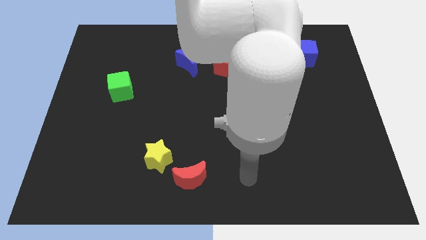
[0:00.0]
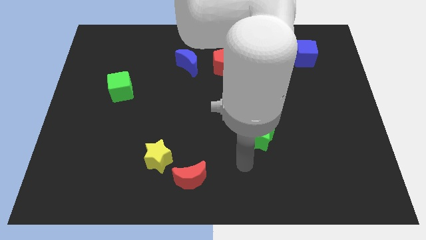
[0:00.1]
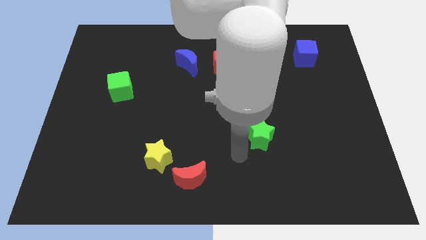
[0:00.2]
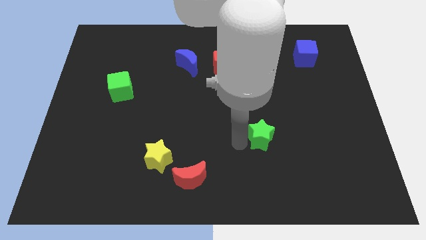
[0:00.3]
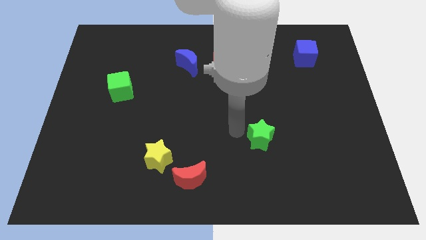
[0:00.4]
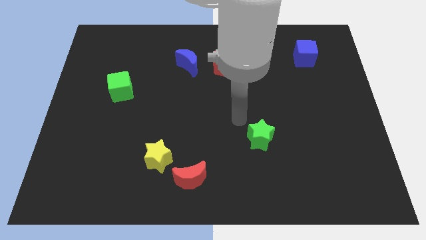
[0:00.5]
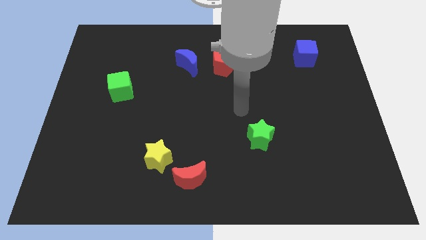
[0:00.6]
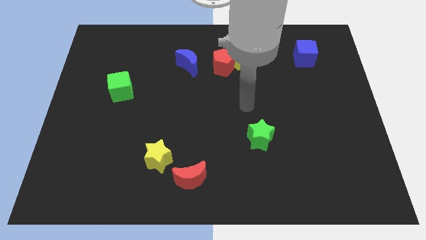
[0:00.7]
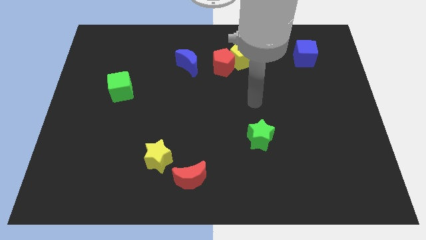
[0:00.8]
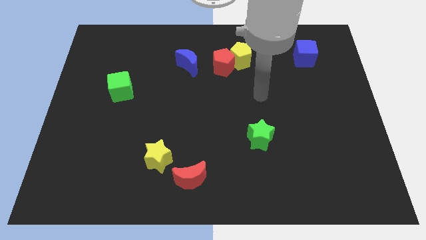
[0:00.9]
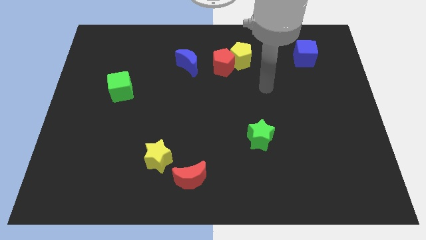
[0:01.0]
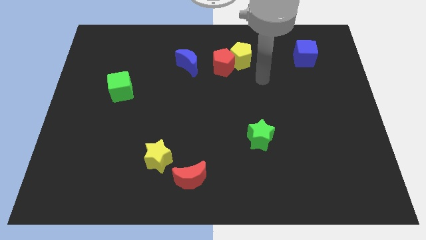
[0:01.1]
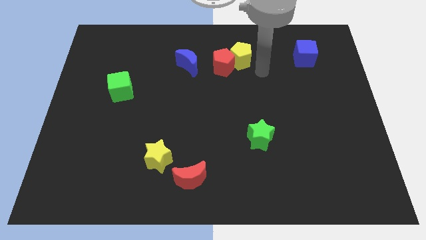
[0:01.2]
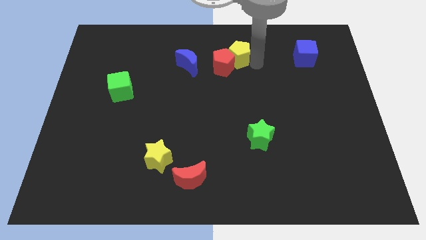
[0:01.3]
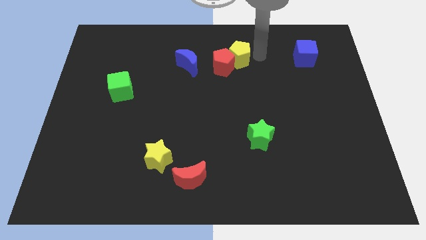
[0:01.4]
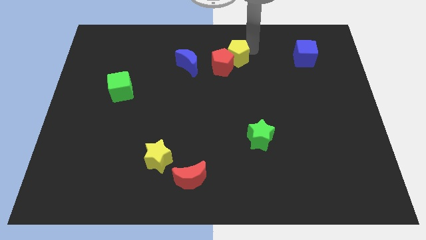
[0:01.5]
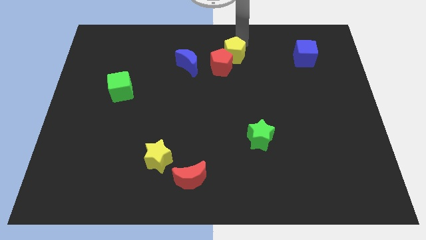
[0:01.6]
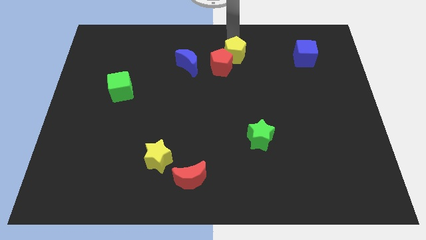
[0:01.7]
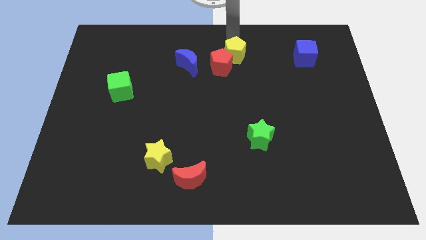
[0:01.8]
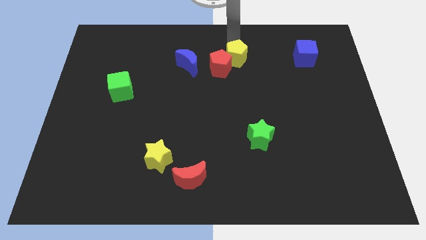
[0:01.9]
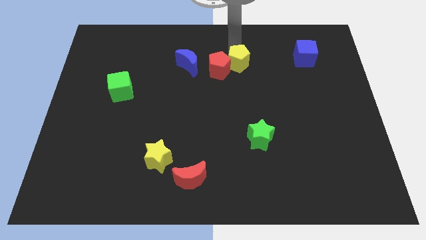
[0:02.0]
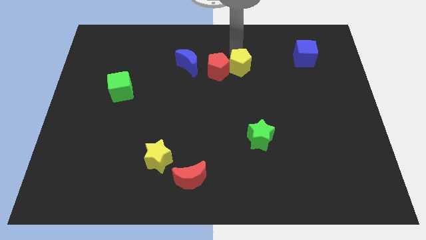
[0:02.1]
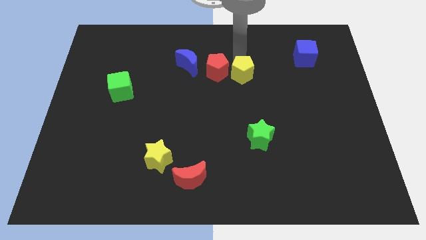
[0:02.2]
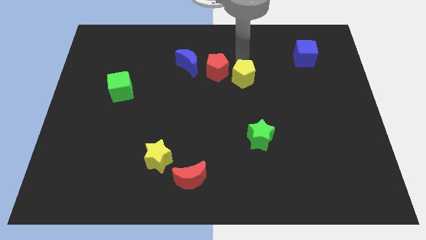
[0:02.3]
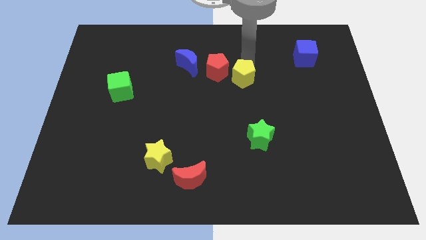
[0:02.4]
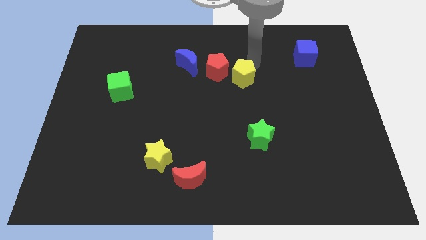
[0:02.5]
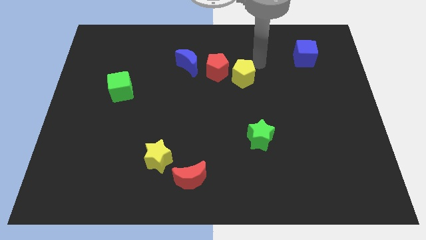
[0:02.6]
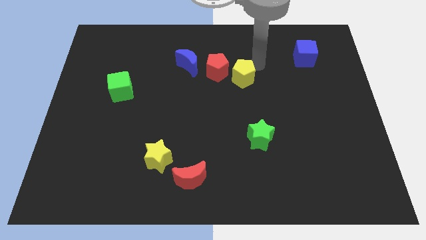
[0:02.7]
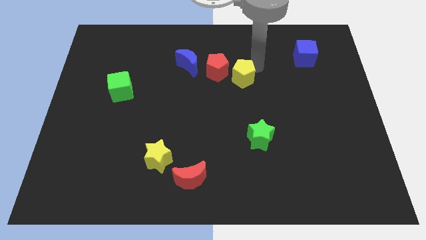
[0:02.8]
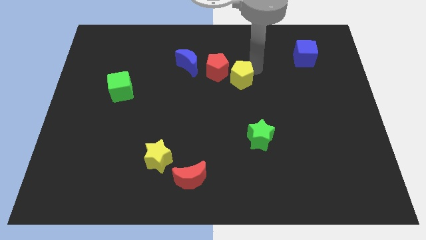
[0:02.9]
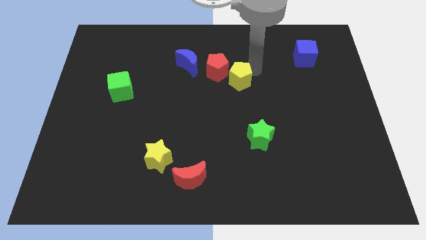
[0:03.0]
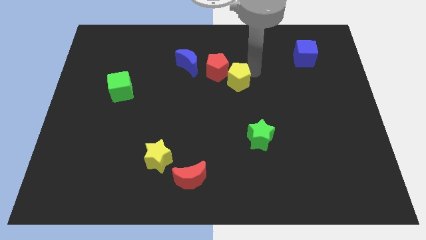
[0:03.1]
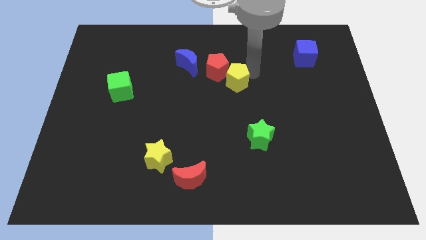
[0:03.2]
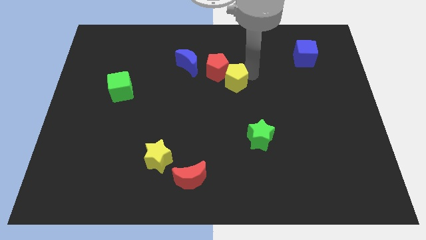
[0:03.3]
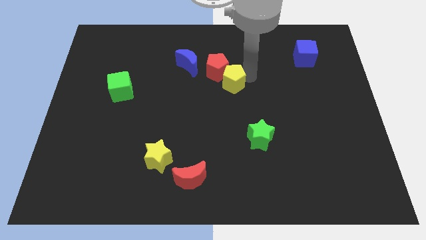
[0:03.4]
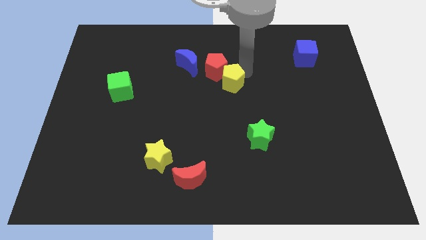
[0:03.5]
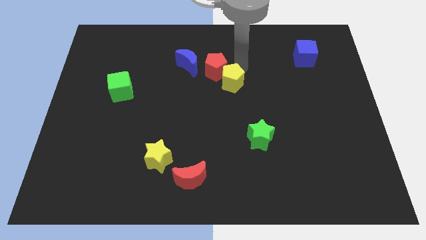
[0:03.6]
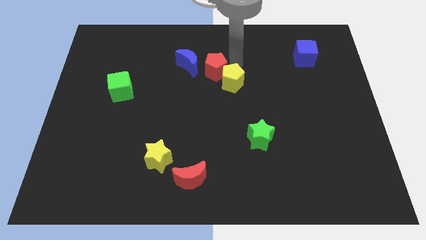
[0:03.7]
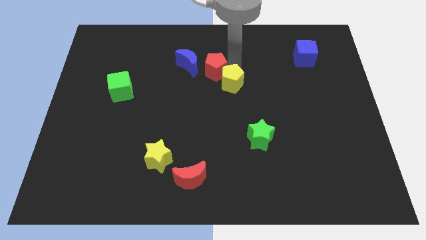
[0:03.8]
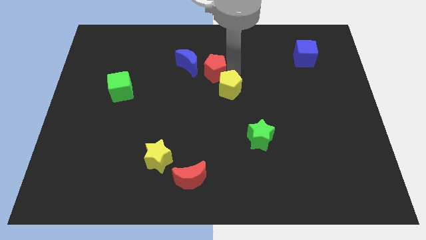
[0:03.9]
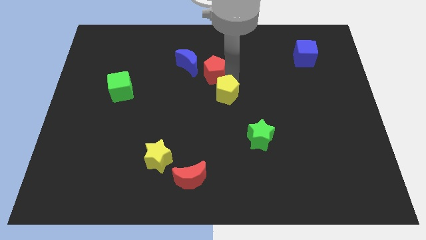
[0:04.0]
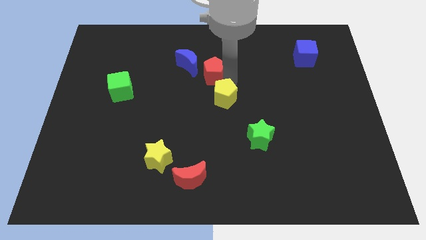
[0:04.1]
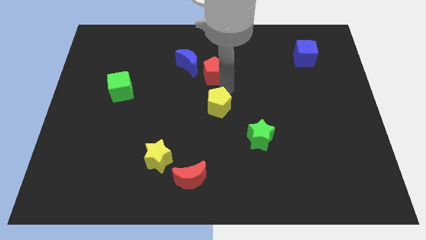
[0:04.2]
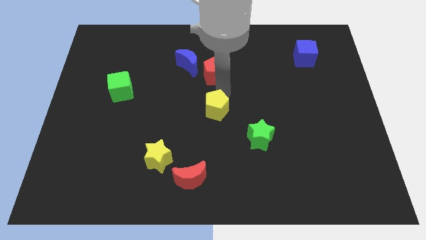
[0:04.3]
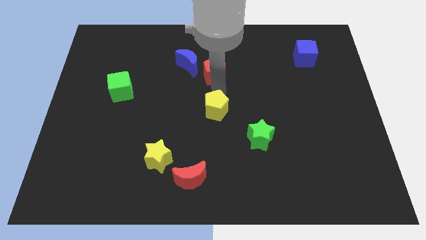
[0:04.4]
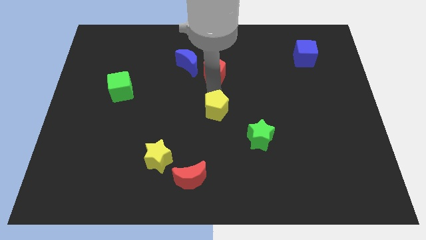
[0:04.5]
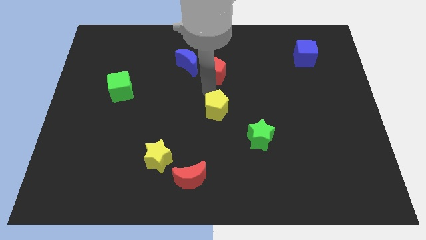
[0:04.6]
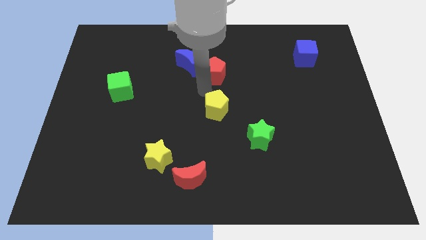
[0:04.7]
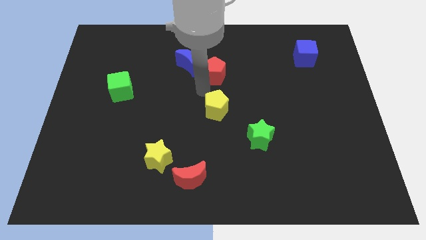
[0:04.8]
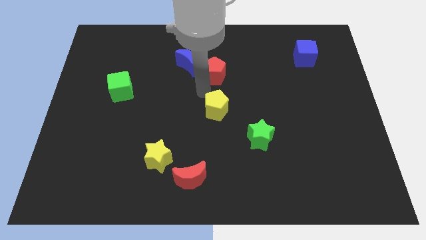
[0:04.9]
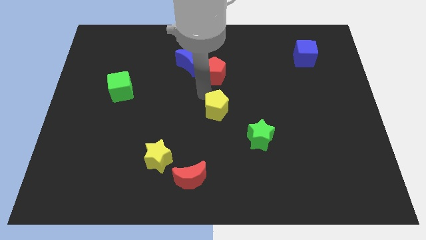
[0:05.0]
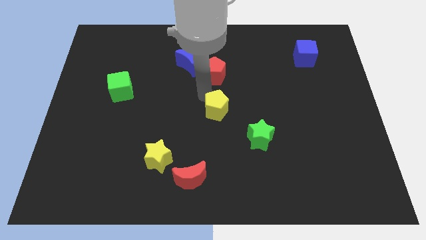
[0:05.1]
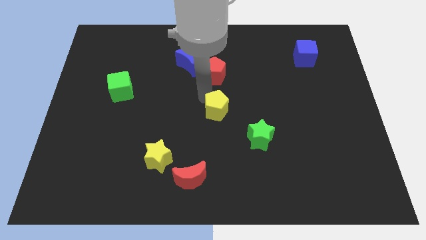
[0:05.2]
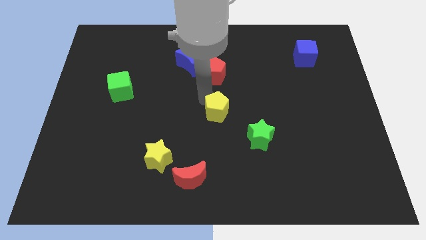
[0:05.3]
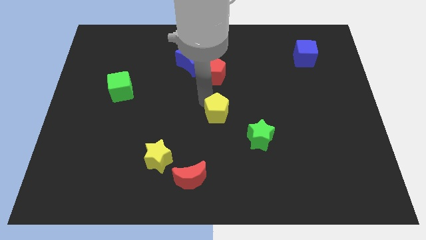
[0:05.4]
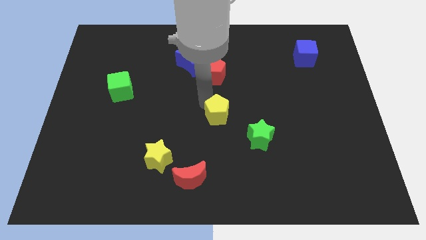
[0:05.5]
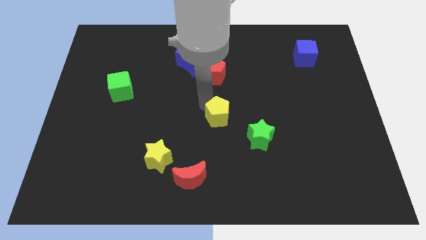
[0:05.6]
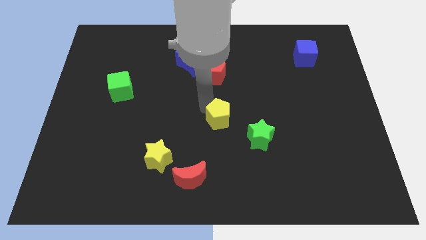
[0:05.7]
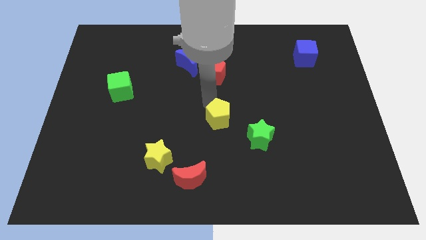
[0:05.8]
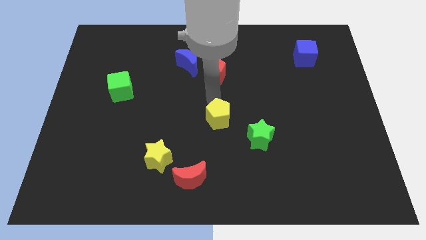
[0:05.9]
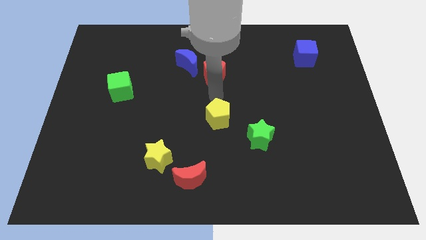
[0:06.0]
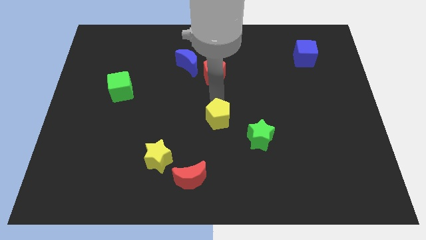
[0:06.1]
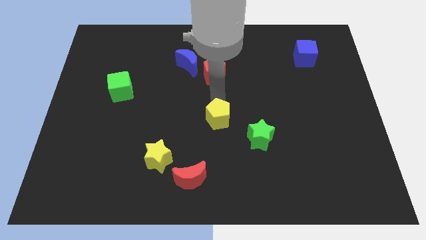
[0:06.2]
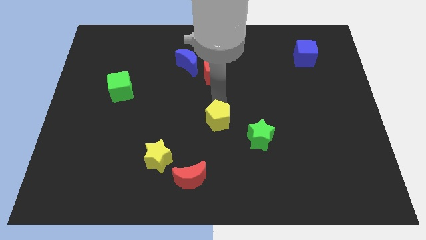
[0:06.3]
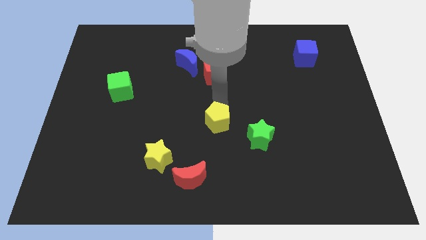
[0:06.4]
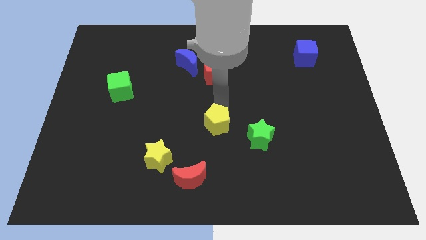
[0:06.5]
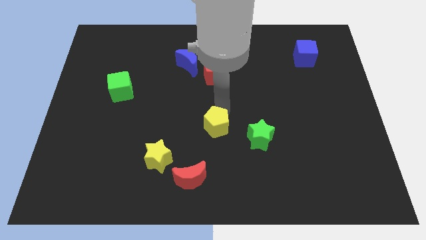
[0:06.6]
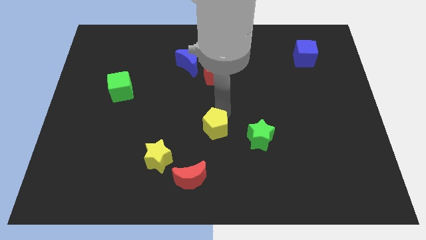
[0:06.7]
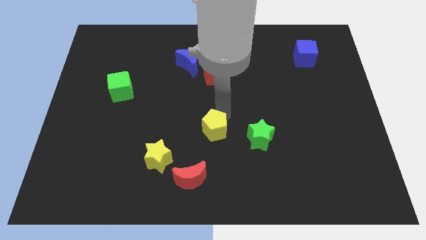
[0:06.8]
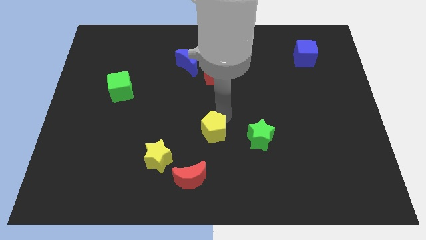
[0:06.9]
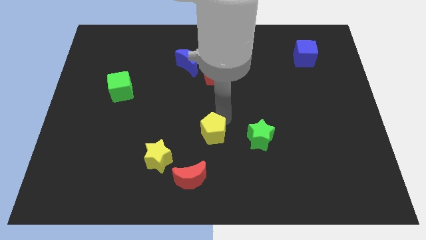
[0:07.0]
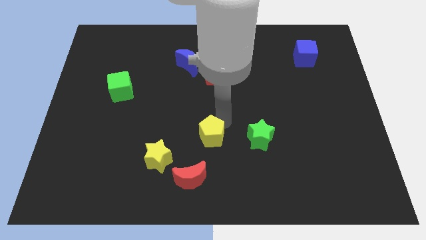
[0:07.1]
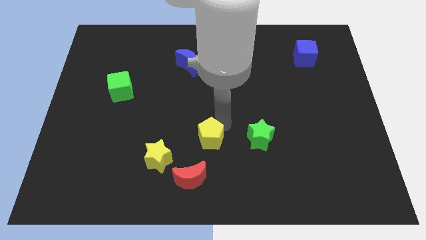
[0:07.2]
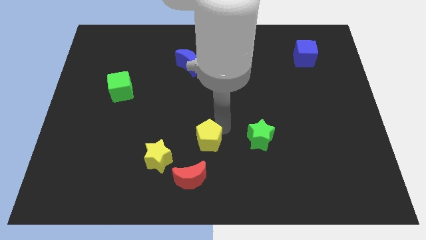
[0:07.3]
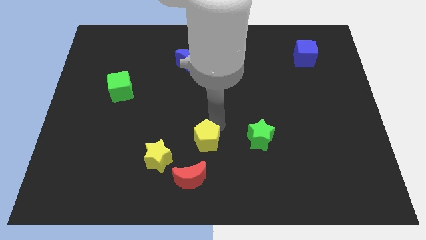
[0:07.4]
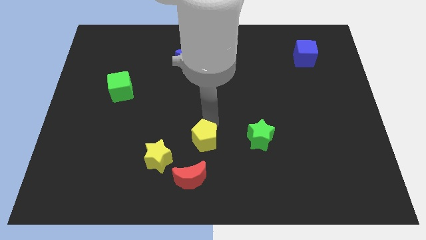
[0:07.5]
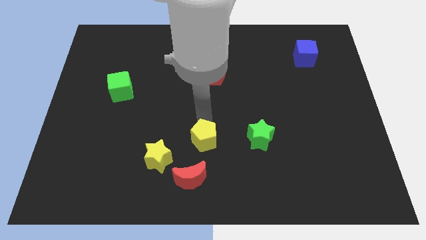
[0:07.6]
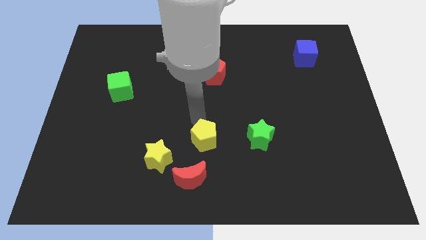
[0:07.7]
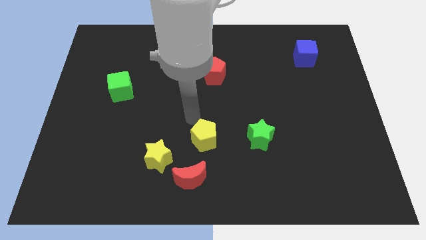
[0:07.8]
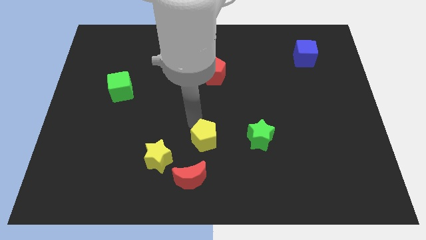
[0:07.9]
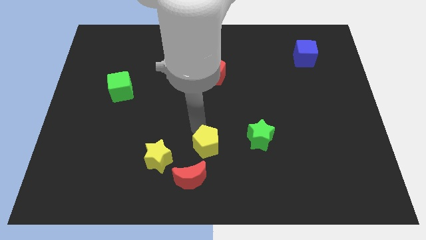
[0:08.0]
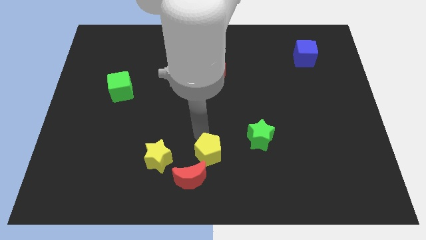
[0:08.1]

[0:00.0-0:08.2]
slide the yellow pentagon to the bottom
